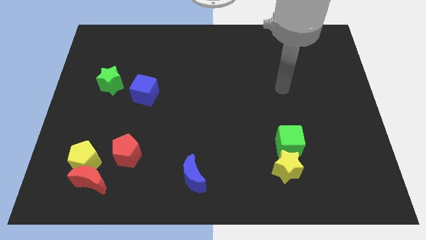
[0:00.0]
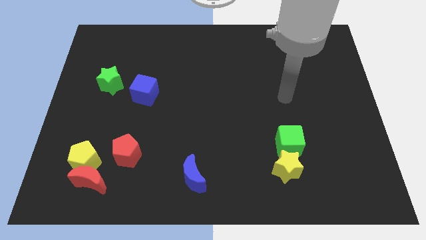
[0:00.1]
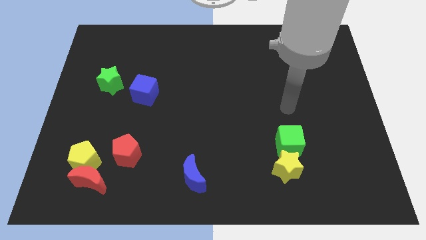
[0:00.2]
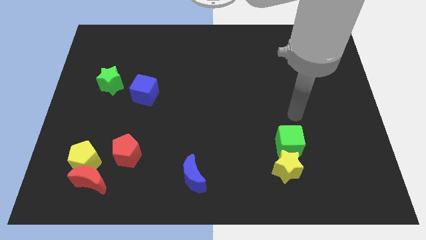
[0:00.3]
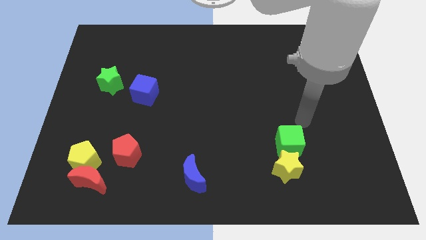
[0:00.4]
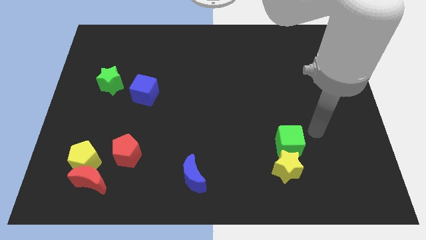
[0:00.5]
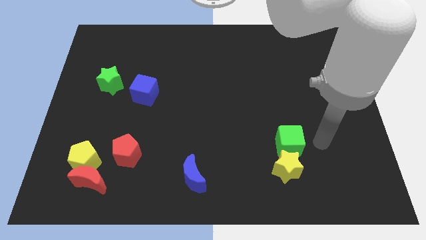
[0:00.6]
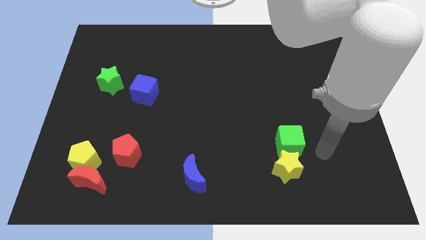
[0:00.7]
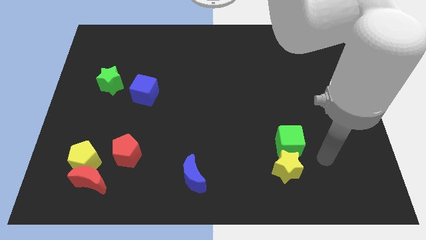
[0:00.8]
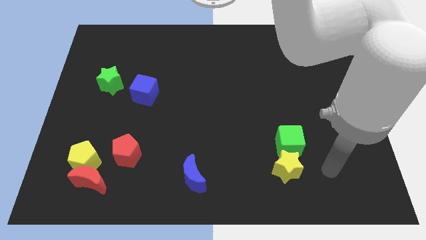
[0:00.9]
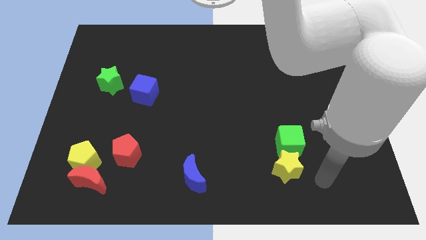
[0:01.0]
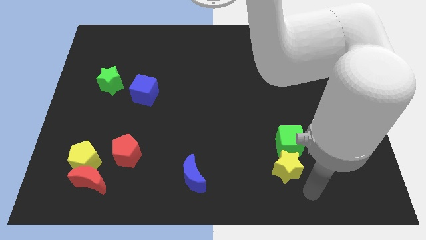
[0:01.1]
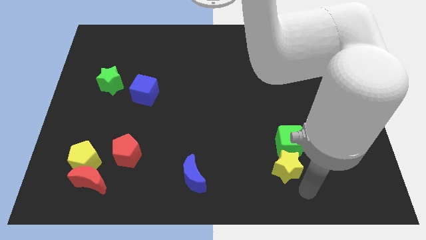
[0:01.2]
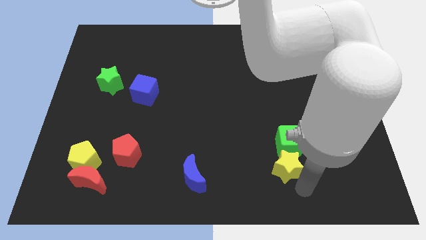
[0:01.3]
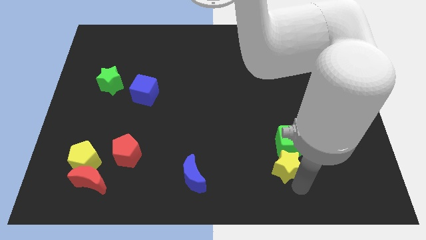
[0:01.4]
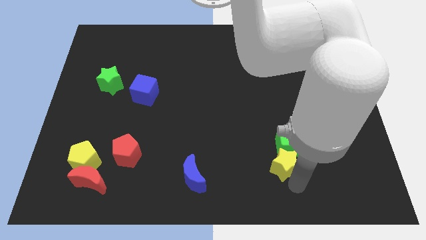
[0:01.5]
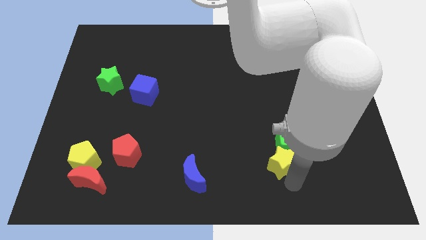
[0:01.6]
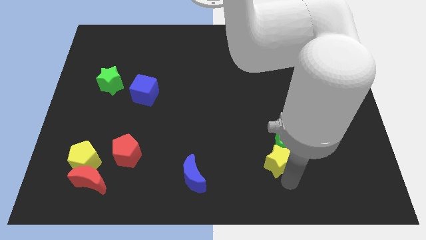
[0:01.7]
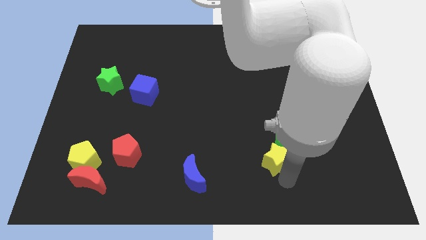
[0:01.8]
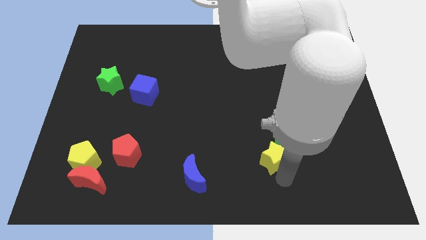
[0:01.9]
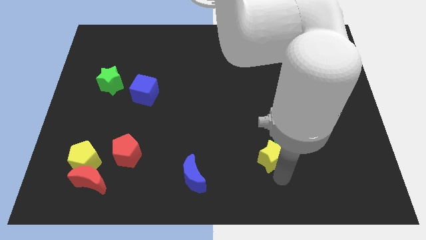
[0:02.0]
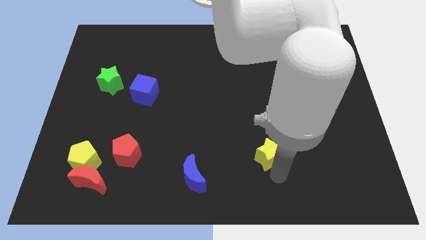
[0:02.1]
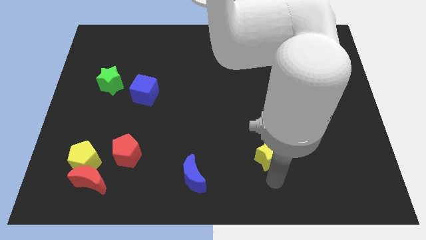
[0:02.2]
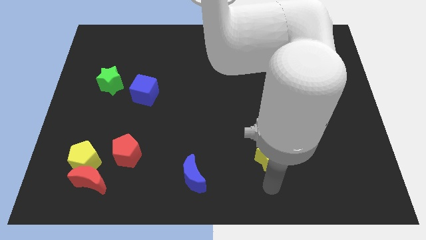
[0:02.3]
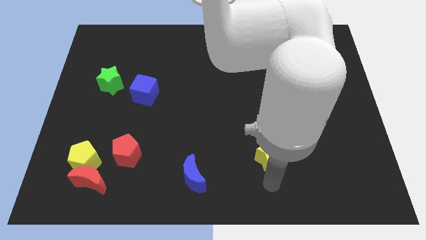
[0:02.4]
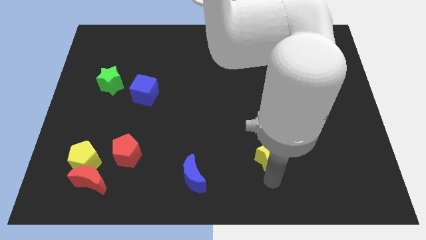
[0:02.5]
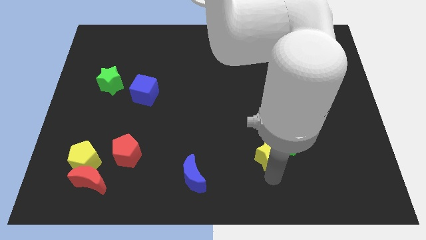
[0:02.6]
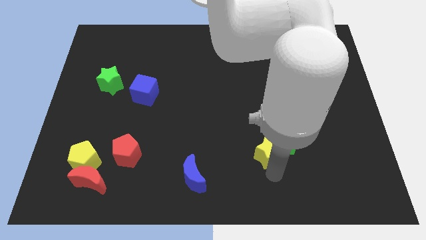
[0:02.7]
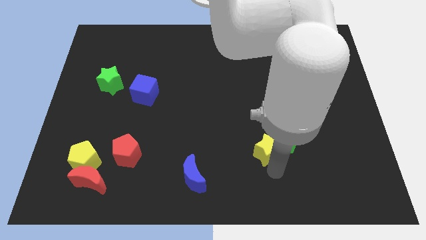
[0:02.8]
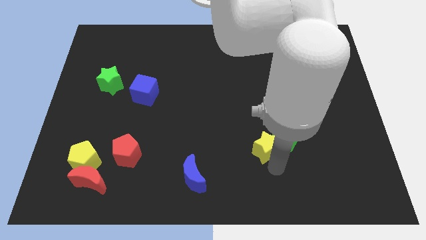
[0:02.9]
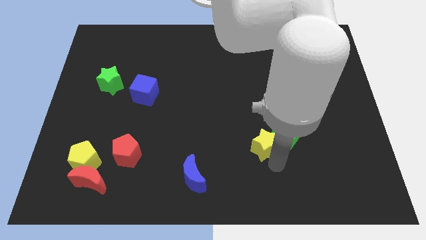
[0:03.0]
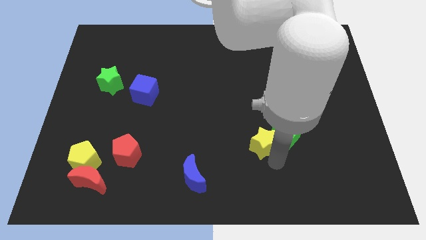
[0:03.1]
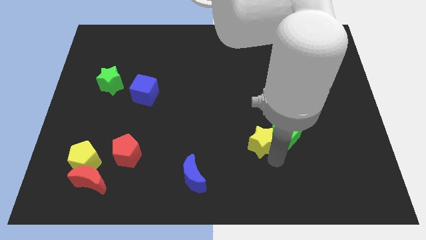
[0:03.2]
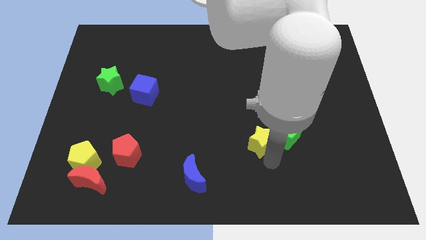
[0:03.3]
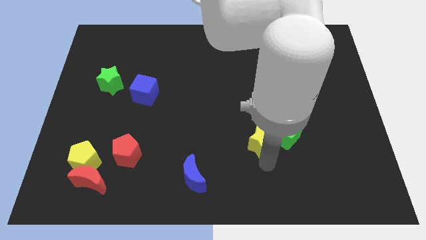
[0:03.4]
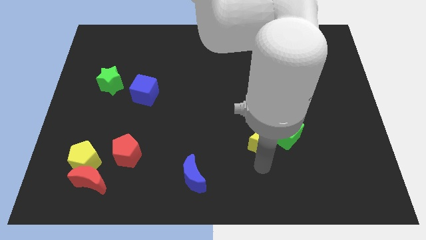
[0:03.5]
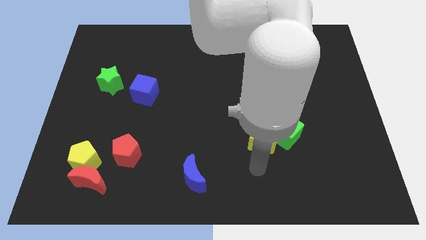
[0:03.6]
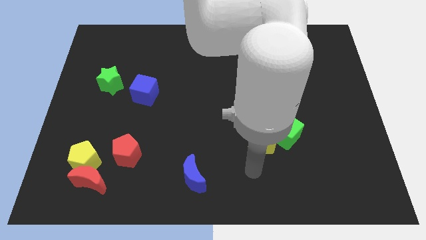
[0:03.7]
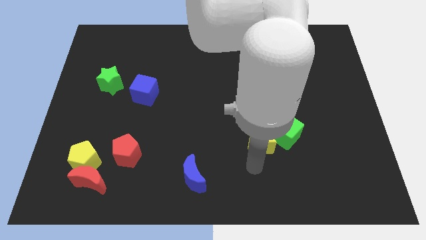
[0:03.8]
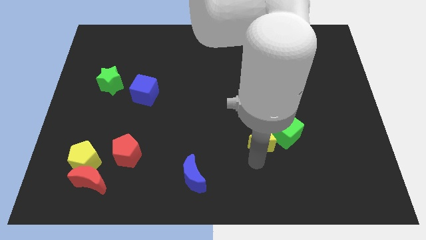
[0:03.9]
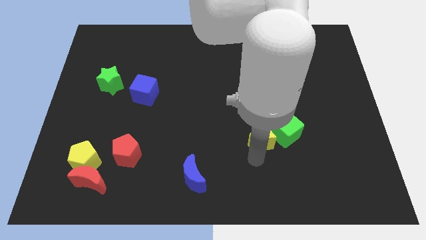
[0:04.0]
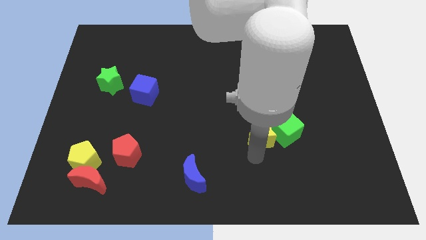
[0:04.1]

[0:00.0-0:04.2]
push the yellow star up somewhat

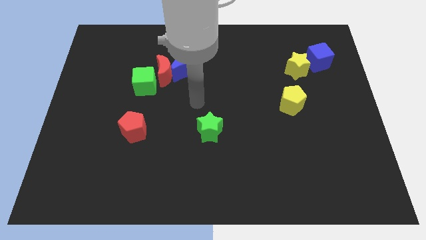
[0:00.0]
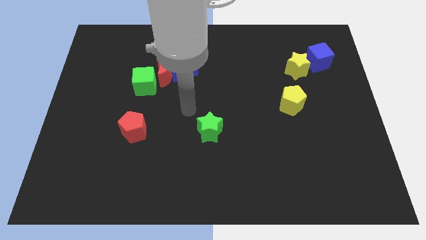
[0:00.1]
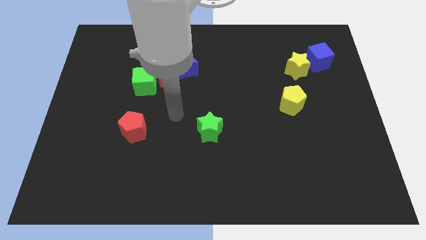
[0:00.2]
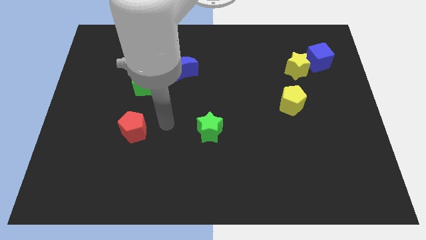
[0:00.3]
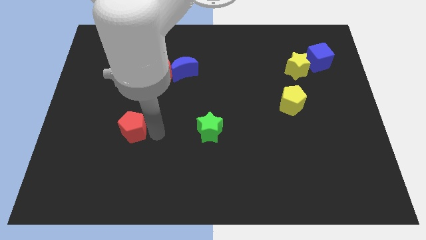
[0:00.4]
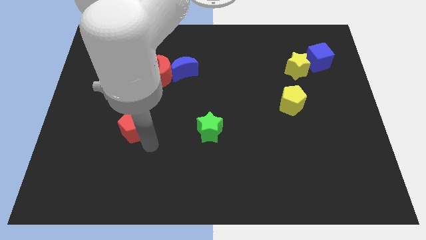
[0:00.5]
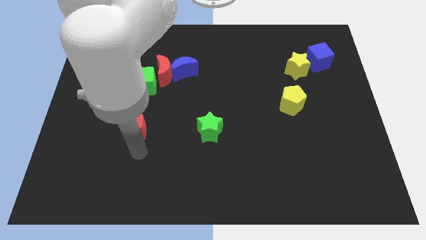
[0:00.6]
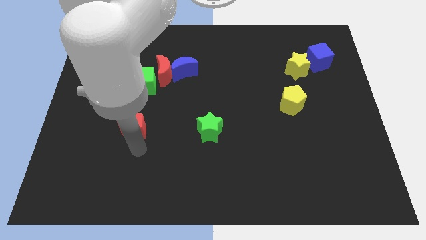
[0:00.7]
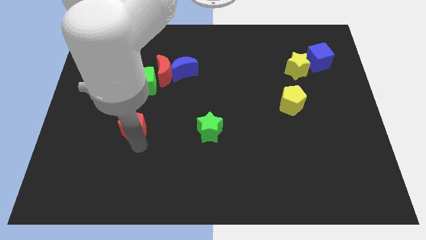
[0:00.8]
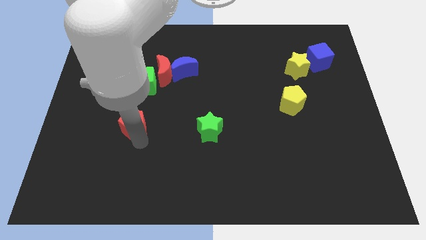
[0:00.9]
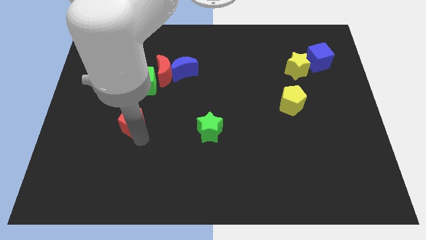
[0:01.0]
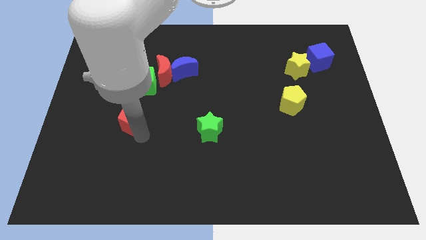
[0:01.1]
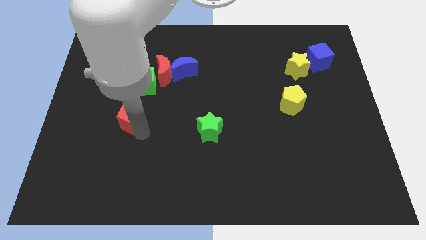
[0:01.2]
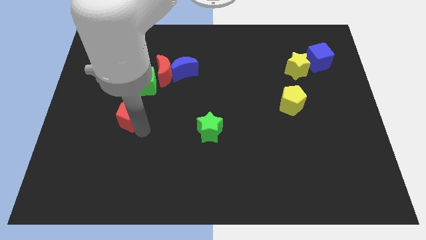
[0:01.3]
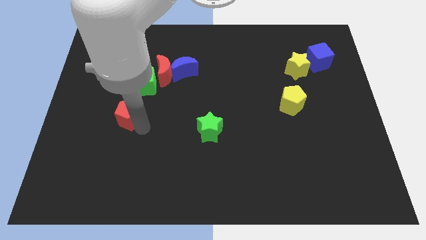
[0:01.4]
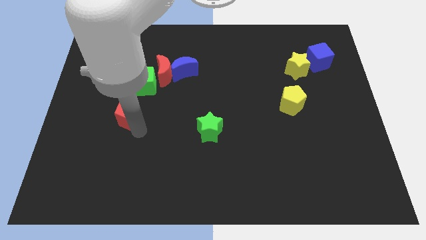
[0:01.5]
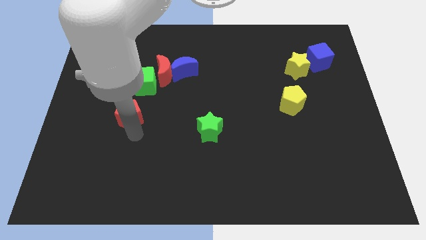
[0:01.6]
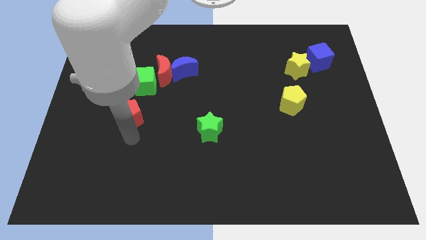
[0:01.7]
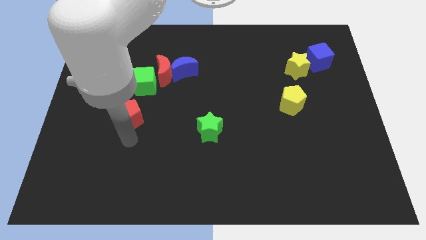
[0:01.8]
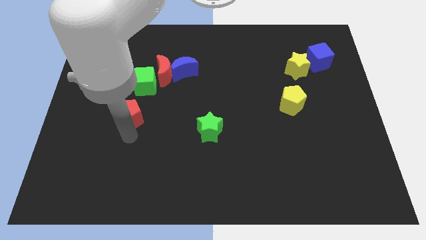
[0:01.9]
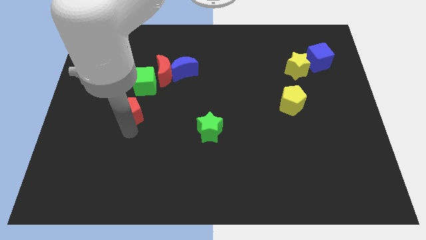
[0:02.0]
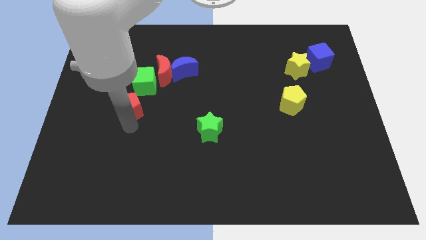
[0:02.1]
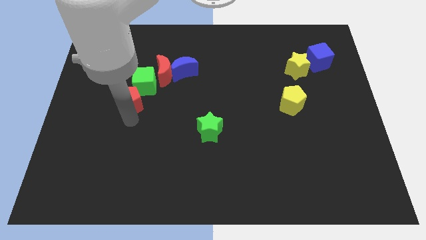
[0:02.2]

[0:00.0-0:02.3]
slightly slide the red pentagon up

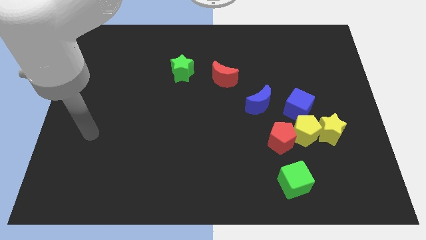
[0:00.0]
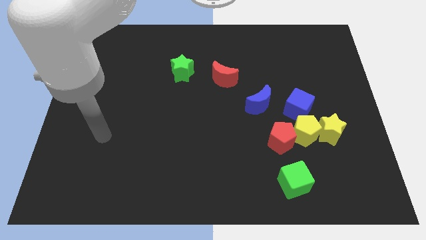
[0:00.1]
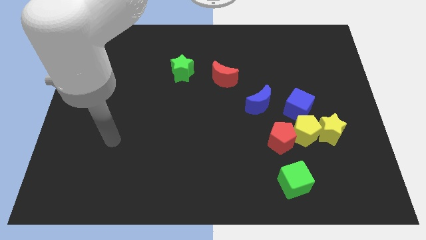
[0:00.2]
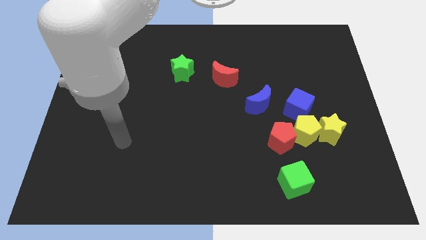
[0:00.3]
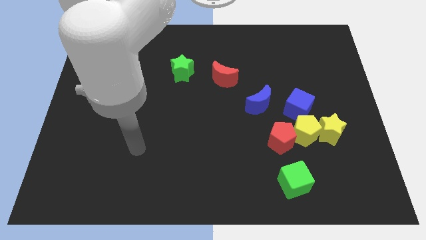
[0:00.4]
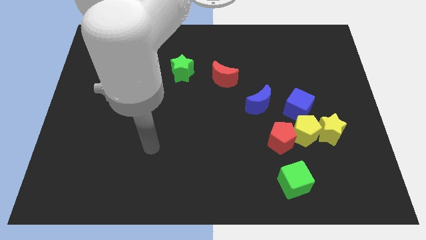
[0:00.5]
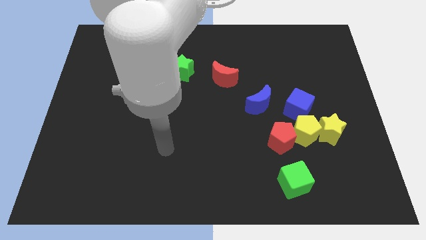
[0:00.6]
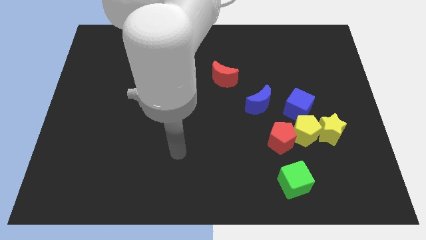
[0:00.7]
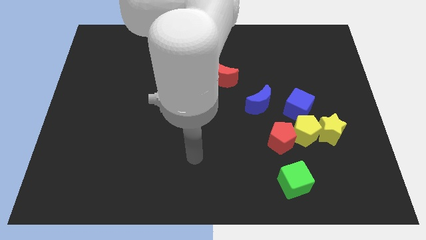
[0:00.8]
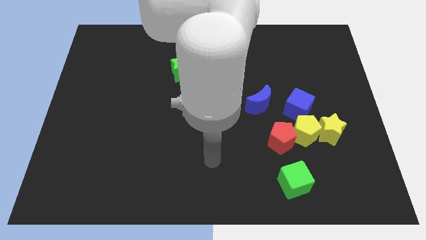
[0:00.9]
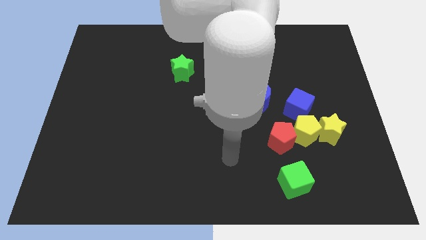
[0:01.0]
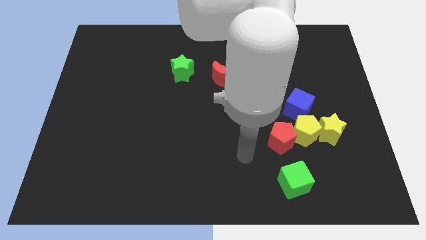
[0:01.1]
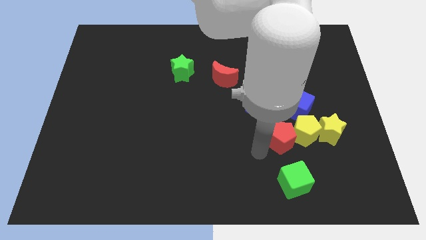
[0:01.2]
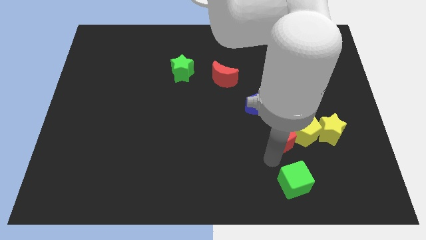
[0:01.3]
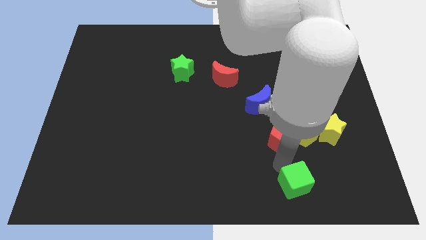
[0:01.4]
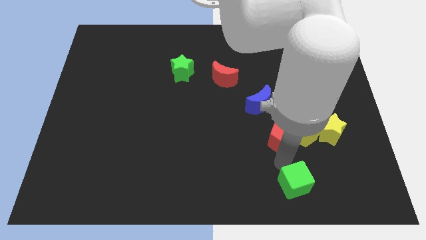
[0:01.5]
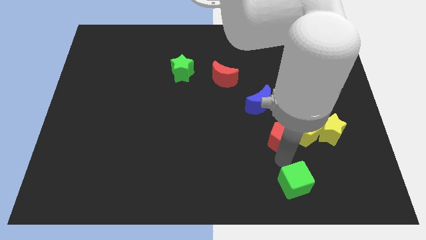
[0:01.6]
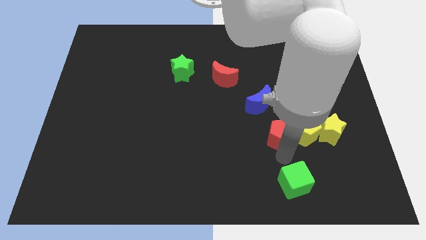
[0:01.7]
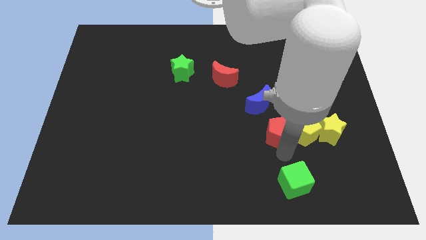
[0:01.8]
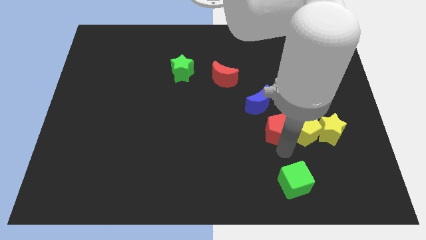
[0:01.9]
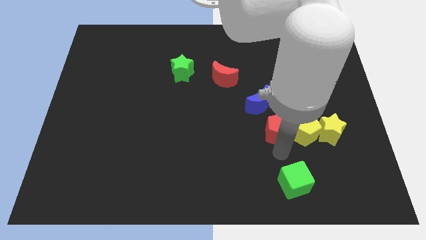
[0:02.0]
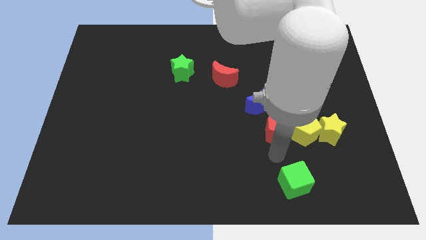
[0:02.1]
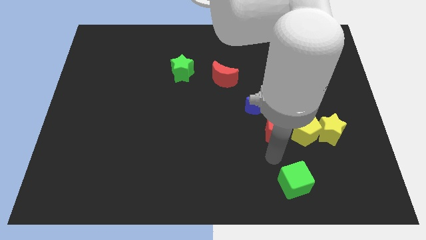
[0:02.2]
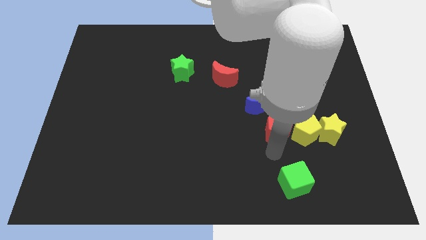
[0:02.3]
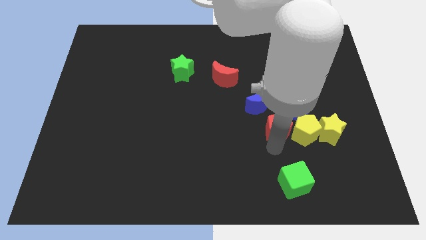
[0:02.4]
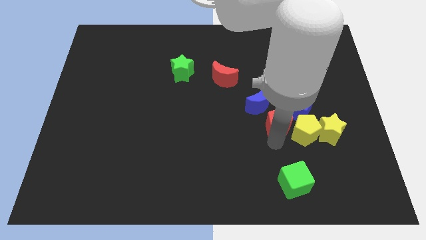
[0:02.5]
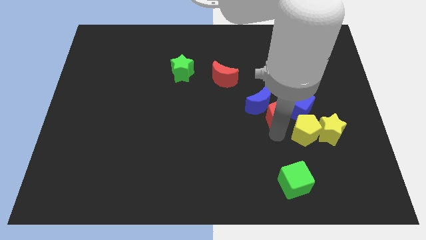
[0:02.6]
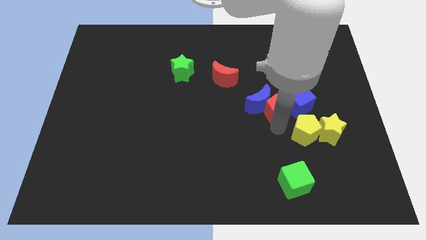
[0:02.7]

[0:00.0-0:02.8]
slightly move the red pentagon upwards
